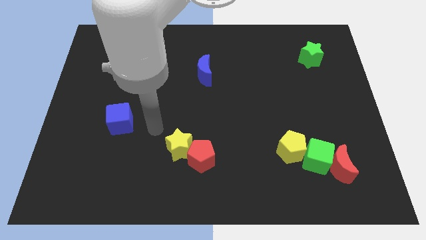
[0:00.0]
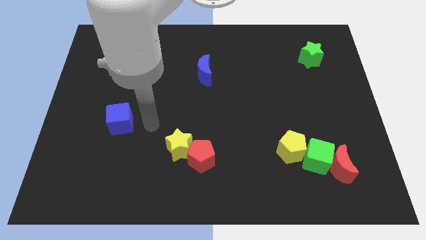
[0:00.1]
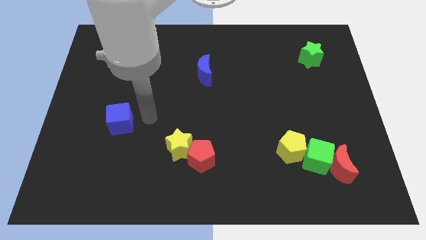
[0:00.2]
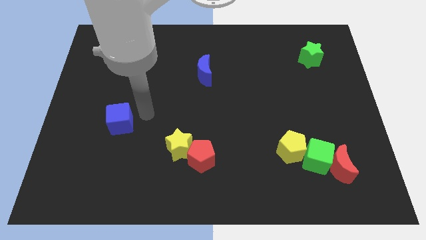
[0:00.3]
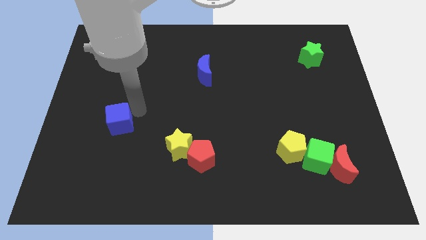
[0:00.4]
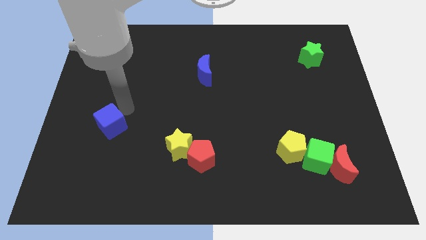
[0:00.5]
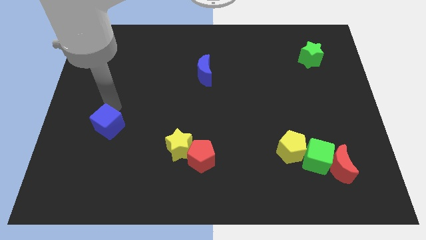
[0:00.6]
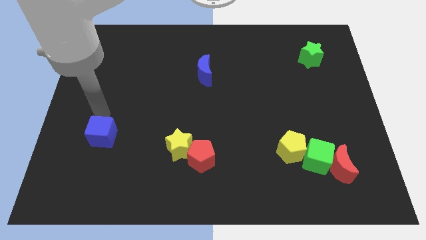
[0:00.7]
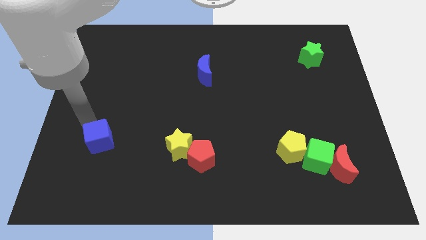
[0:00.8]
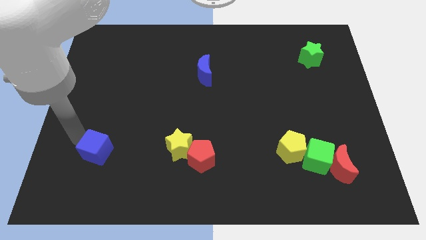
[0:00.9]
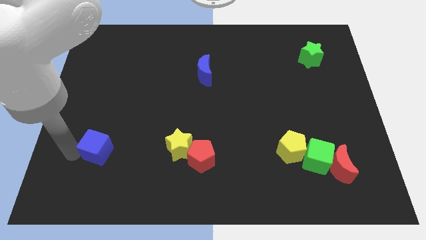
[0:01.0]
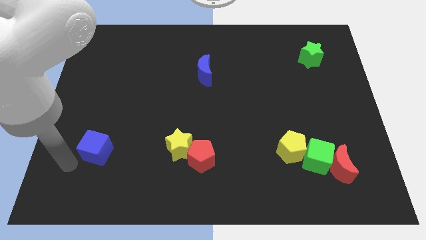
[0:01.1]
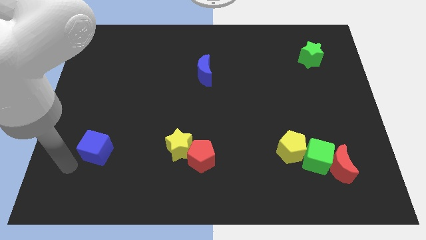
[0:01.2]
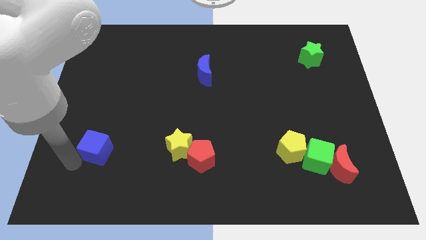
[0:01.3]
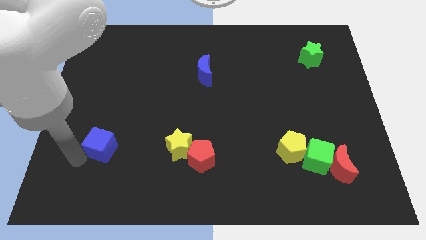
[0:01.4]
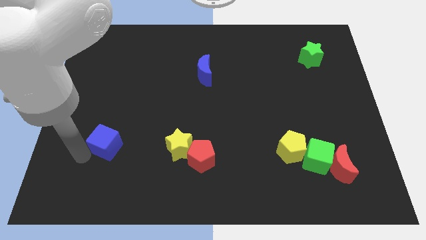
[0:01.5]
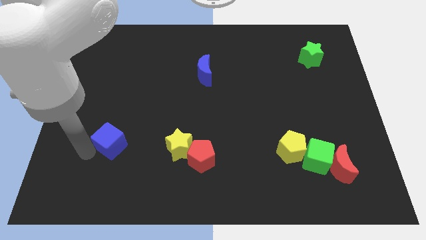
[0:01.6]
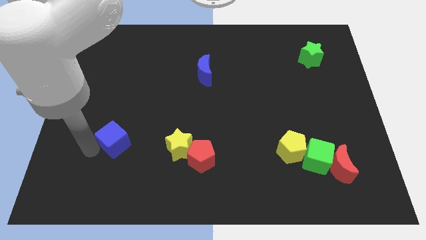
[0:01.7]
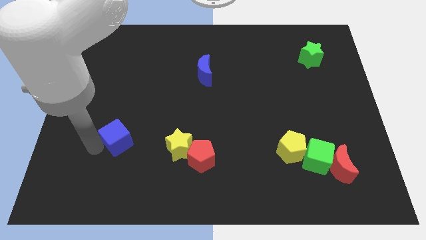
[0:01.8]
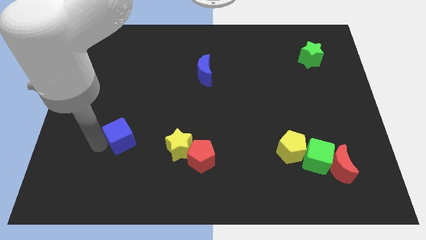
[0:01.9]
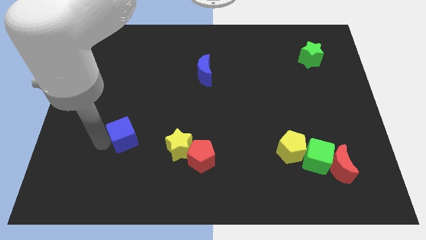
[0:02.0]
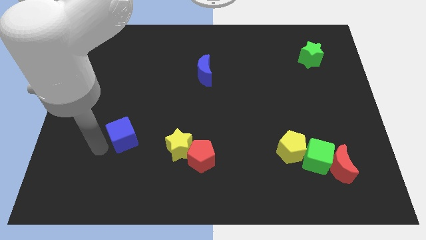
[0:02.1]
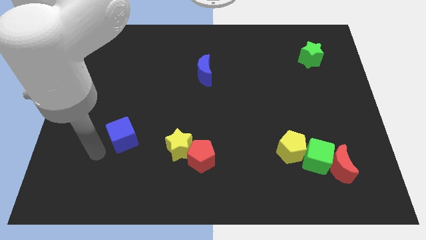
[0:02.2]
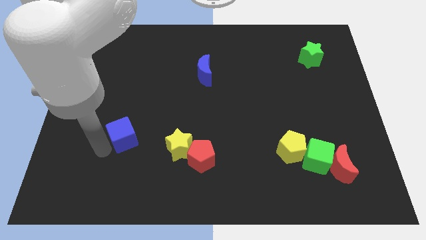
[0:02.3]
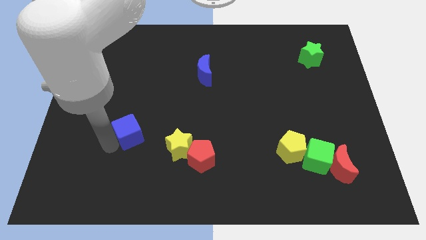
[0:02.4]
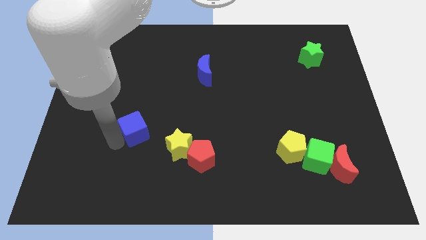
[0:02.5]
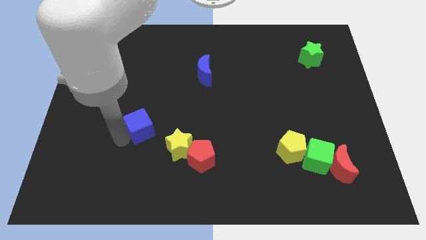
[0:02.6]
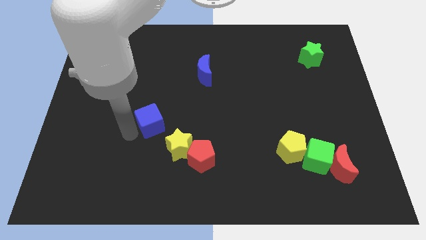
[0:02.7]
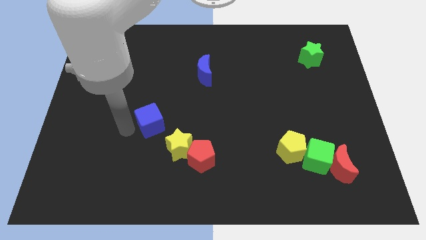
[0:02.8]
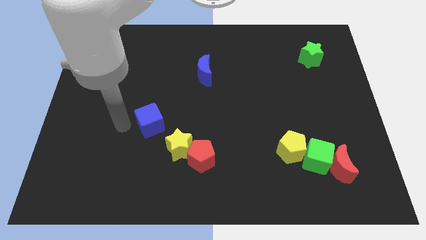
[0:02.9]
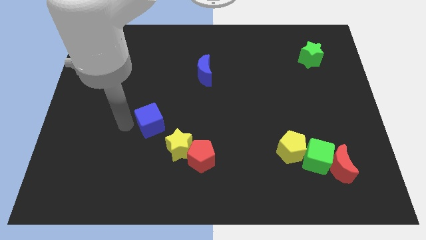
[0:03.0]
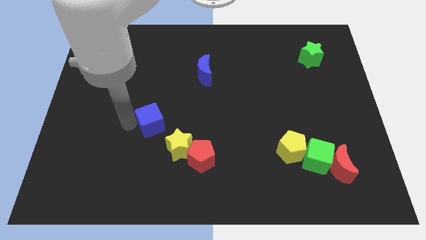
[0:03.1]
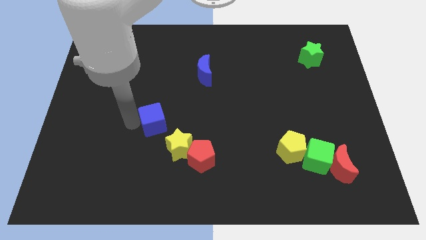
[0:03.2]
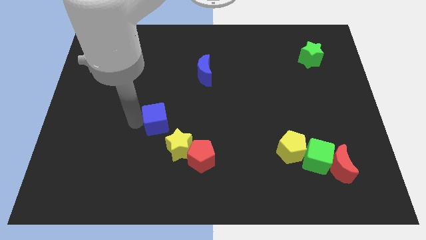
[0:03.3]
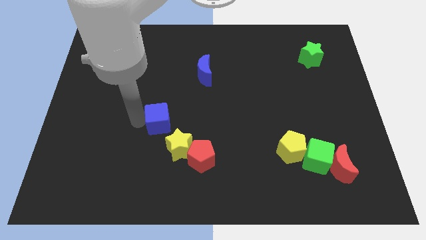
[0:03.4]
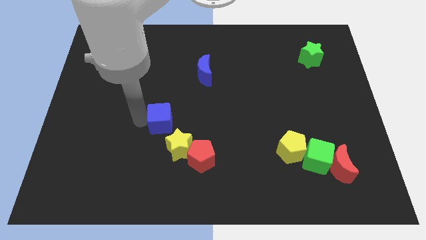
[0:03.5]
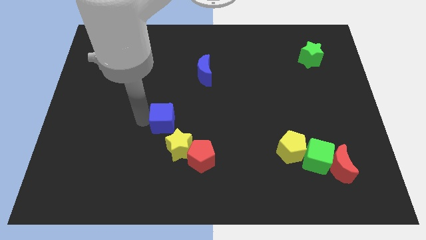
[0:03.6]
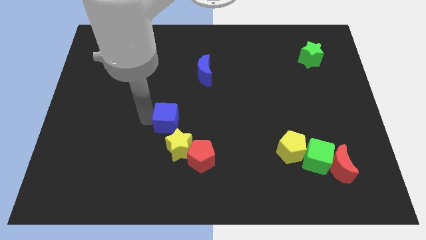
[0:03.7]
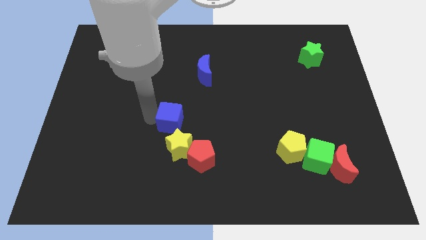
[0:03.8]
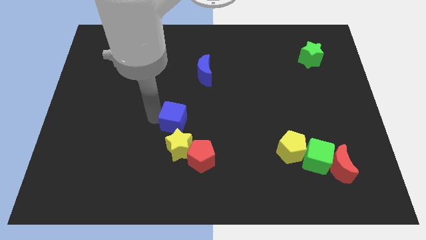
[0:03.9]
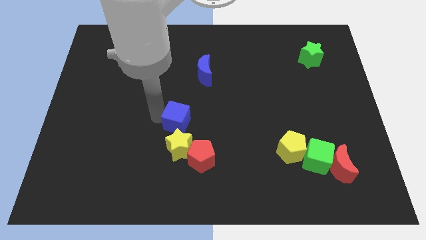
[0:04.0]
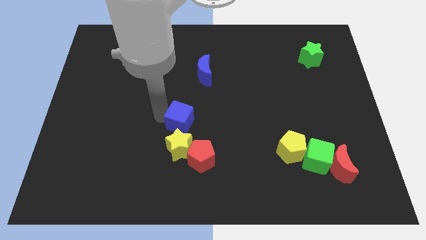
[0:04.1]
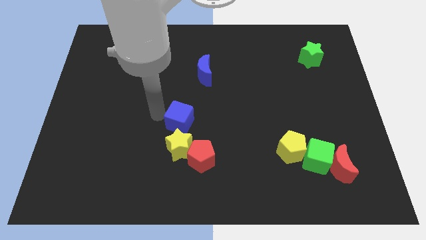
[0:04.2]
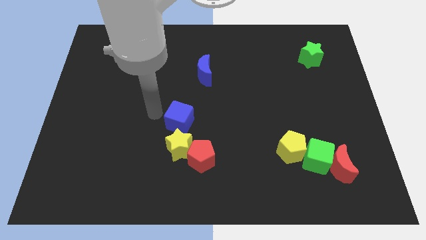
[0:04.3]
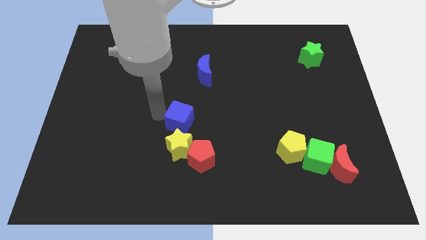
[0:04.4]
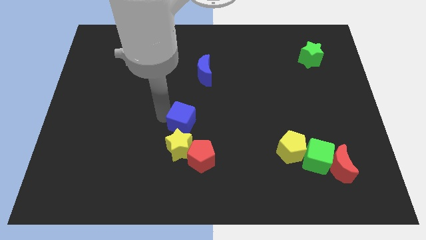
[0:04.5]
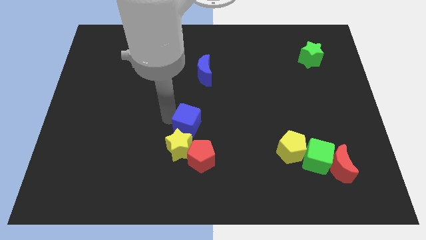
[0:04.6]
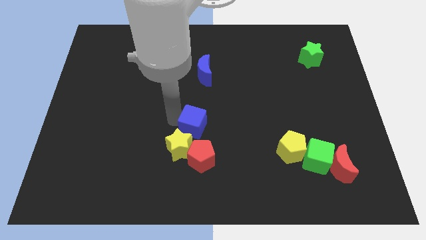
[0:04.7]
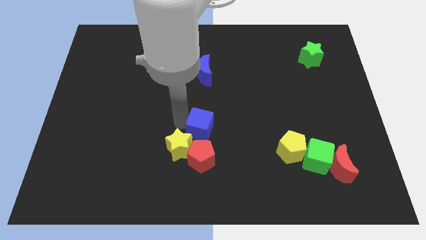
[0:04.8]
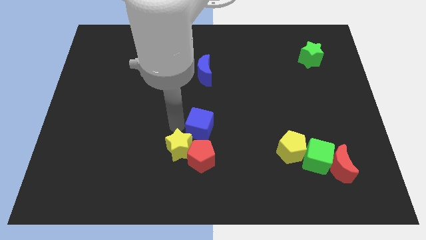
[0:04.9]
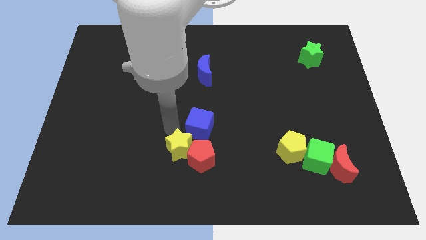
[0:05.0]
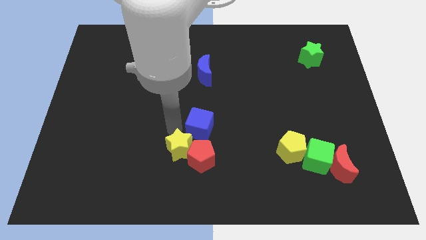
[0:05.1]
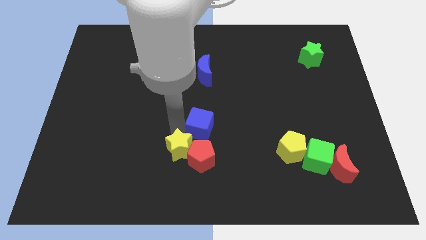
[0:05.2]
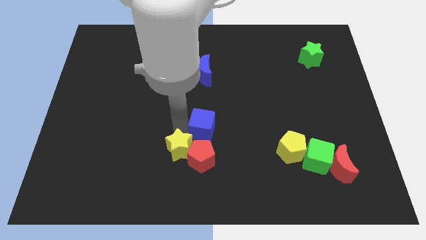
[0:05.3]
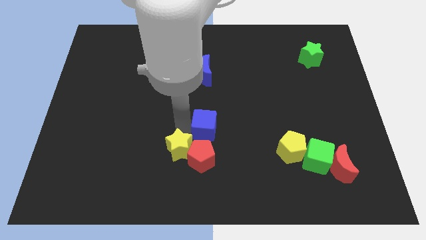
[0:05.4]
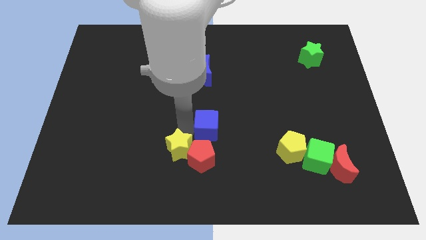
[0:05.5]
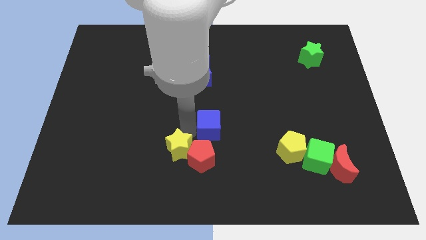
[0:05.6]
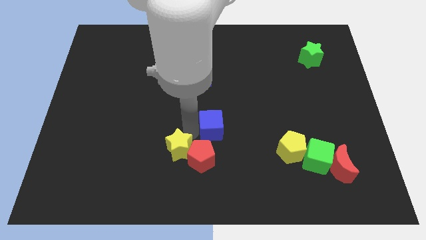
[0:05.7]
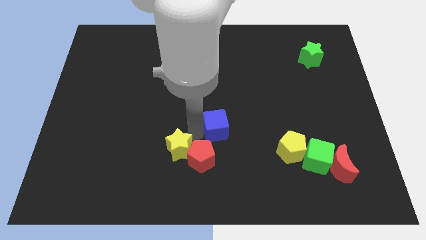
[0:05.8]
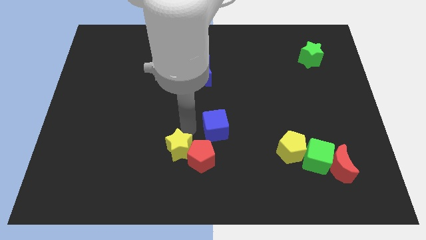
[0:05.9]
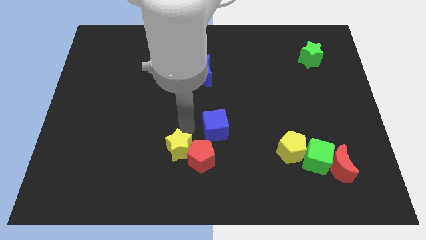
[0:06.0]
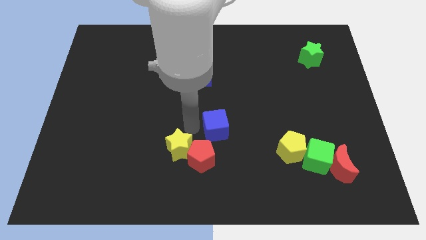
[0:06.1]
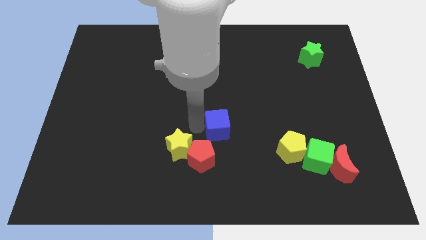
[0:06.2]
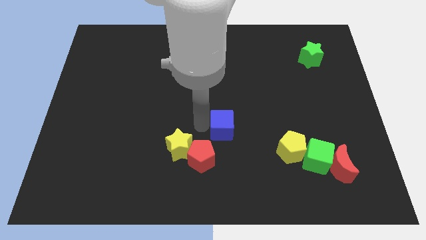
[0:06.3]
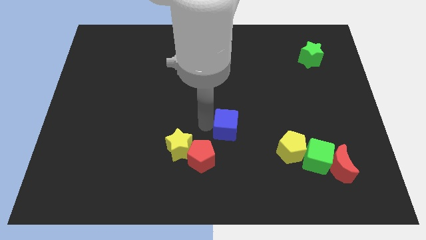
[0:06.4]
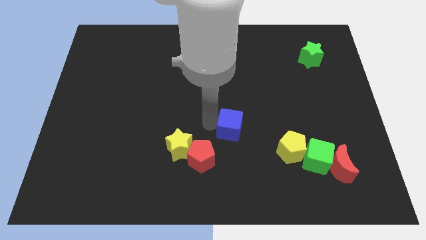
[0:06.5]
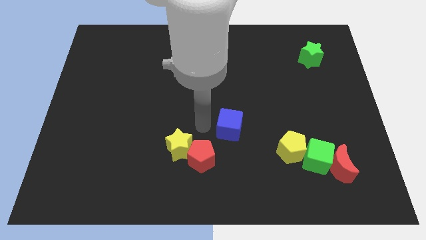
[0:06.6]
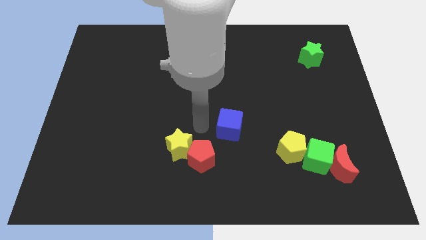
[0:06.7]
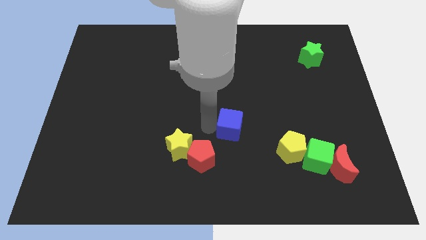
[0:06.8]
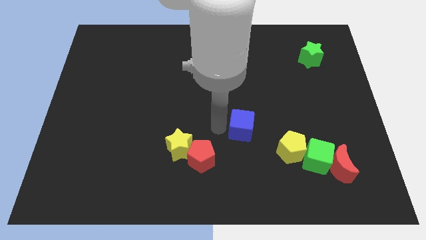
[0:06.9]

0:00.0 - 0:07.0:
move the blue cube to the top left of the yellow pentagon
